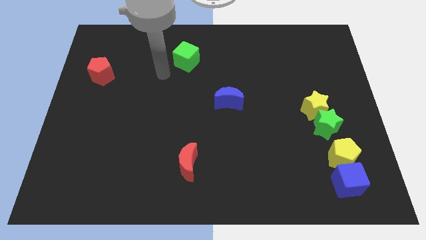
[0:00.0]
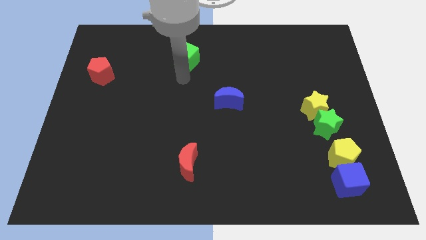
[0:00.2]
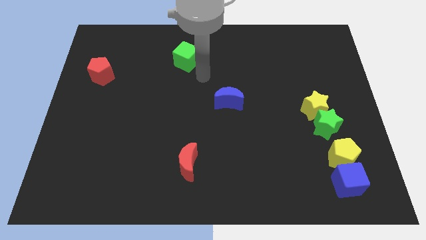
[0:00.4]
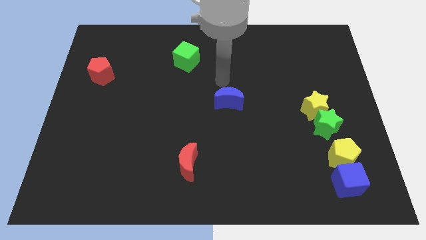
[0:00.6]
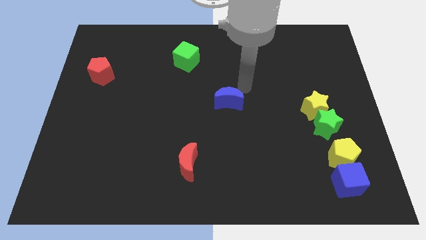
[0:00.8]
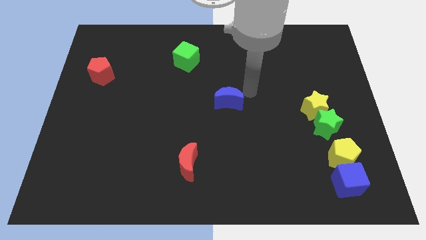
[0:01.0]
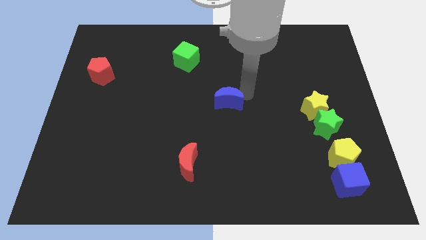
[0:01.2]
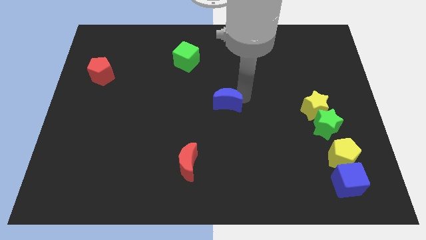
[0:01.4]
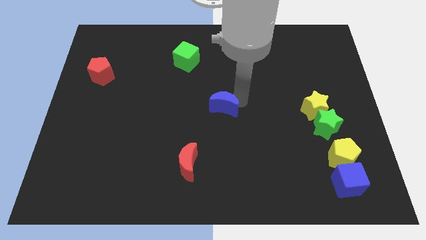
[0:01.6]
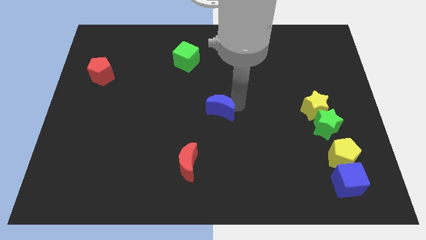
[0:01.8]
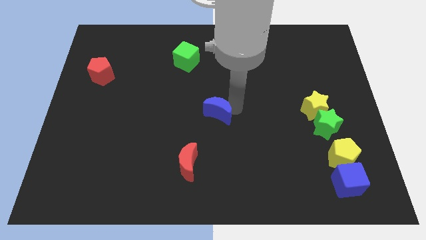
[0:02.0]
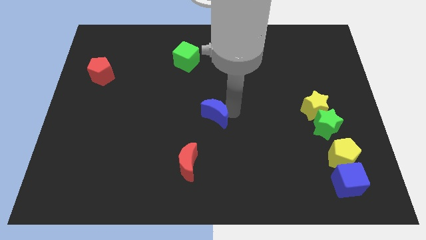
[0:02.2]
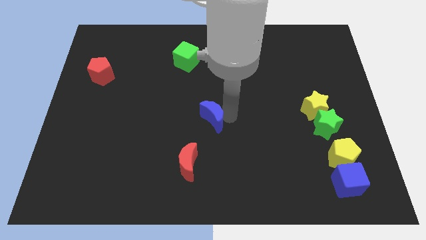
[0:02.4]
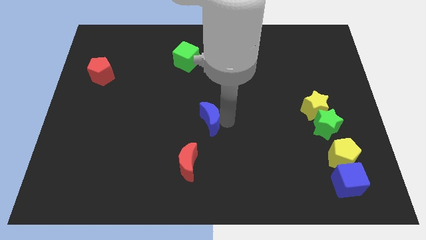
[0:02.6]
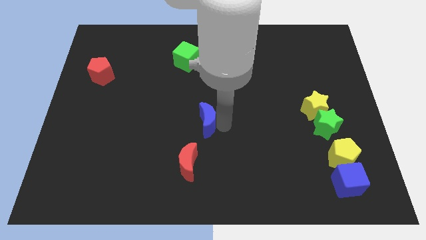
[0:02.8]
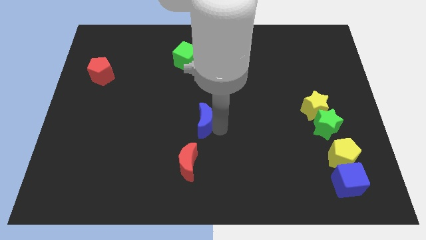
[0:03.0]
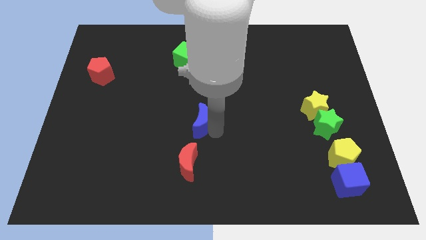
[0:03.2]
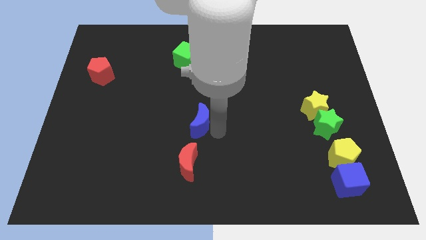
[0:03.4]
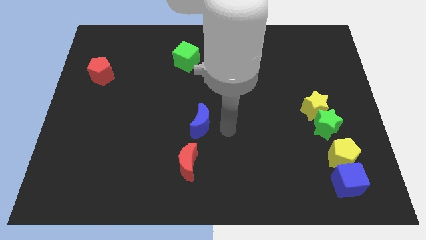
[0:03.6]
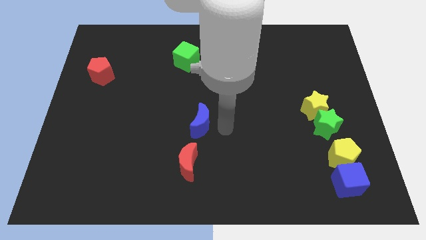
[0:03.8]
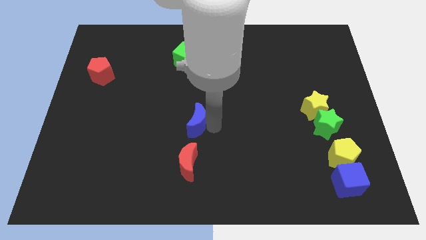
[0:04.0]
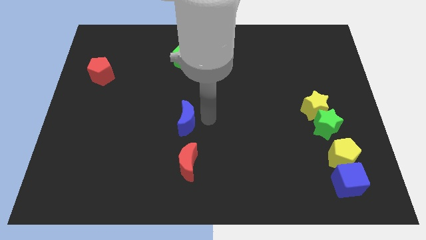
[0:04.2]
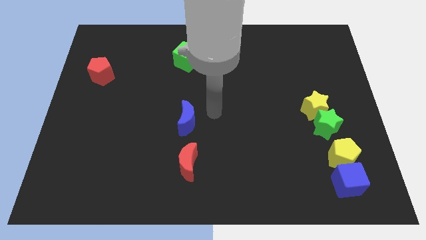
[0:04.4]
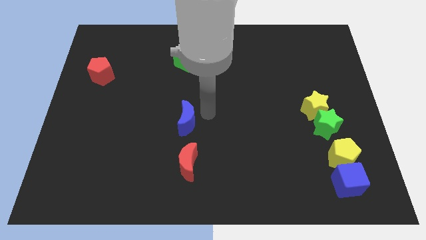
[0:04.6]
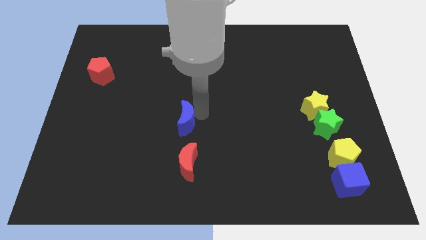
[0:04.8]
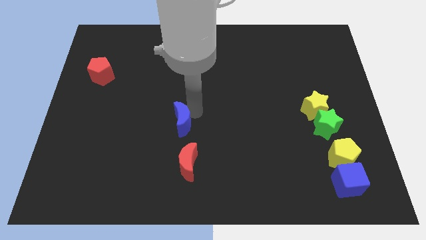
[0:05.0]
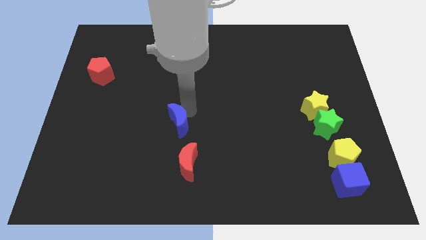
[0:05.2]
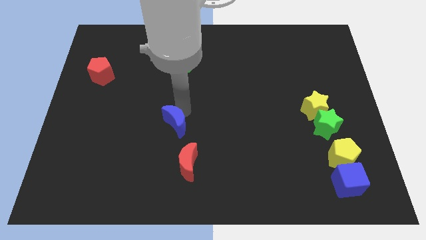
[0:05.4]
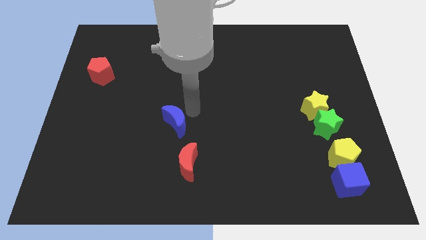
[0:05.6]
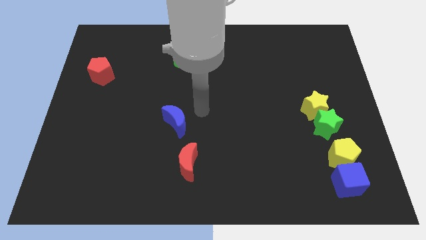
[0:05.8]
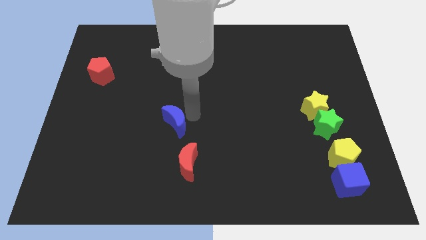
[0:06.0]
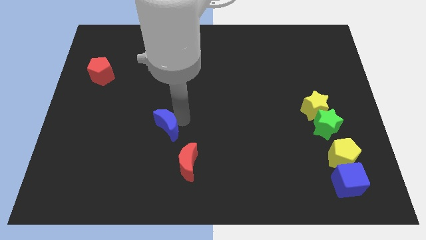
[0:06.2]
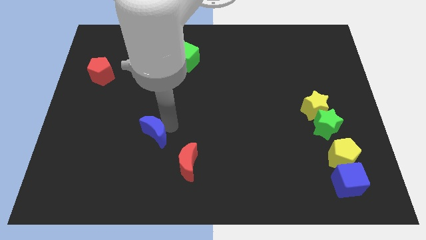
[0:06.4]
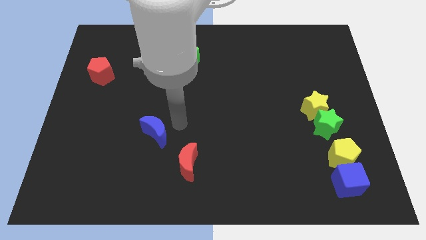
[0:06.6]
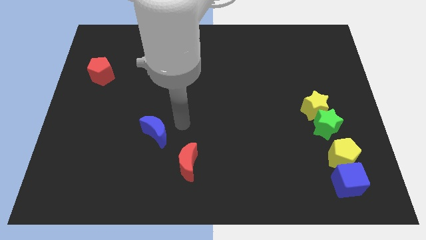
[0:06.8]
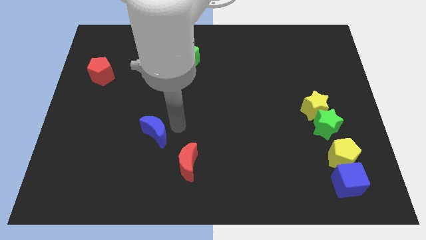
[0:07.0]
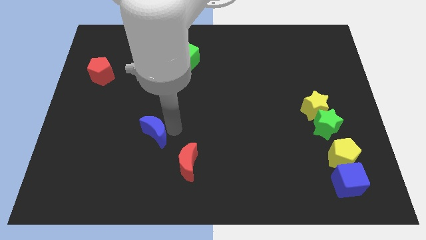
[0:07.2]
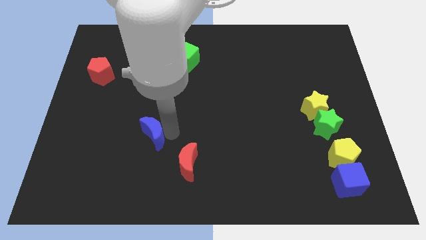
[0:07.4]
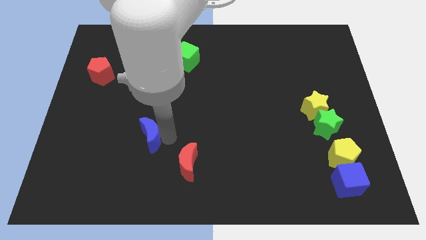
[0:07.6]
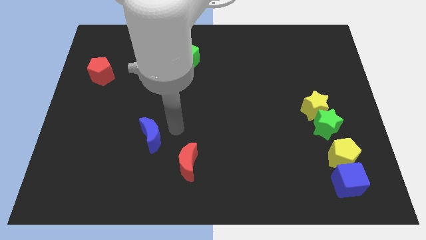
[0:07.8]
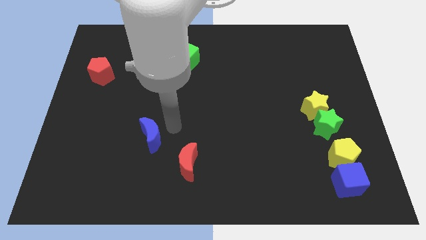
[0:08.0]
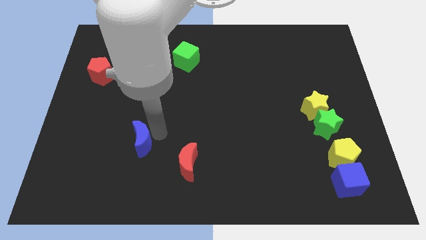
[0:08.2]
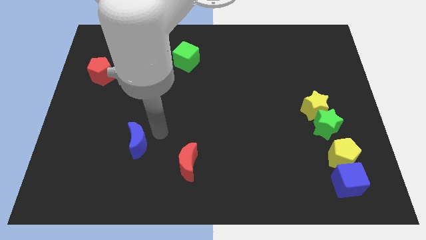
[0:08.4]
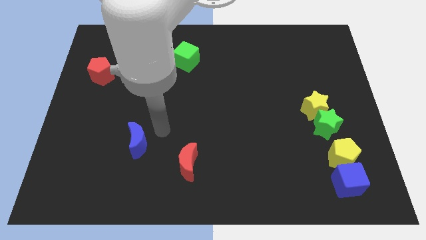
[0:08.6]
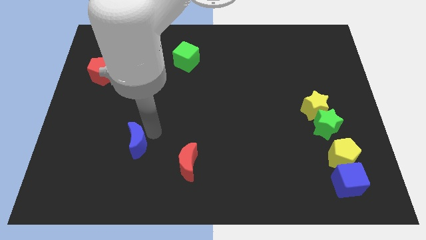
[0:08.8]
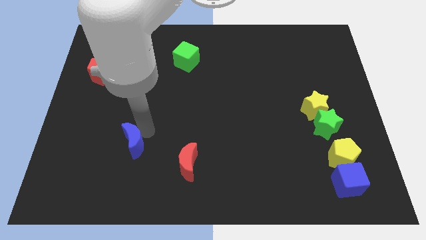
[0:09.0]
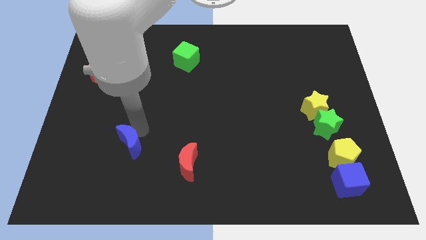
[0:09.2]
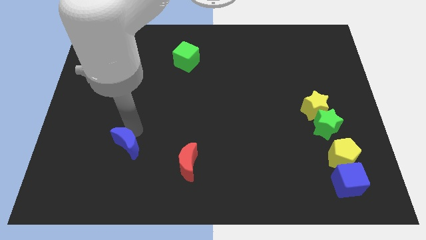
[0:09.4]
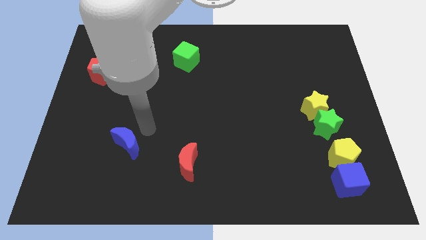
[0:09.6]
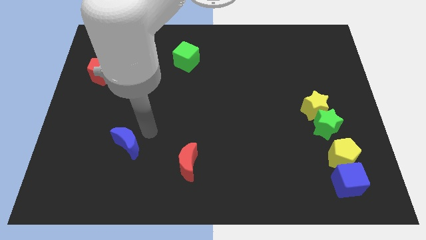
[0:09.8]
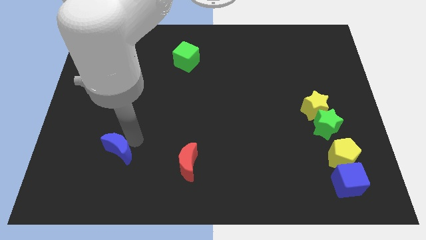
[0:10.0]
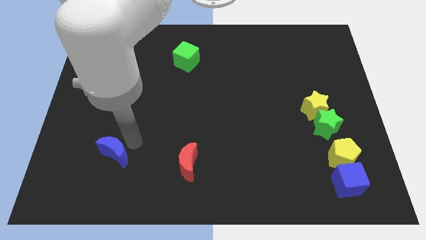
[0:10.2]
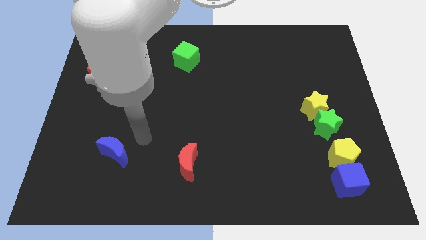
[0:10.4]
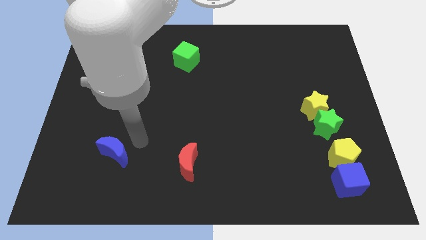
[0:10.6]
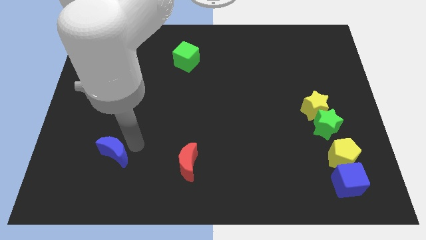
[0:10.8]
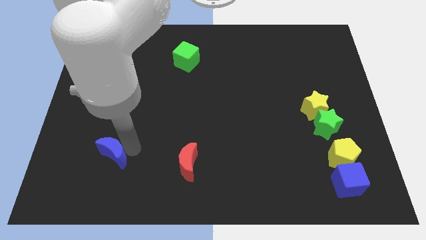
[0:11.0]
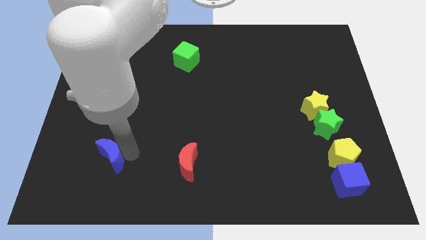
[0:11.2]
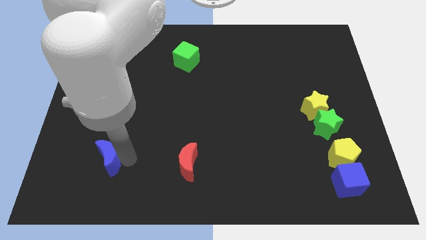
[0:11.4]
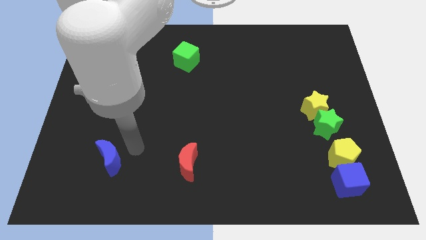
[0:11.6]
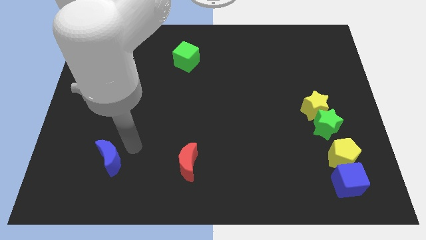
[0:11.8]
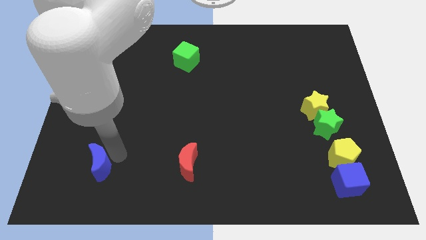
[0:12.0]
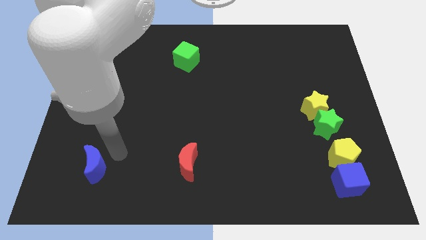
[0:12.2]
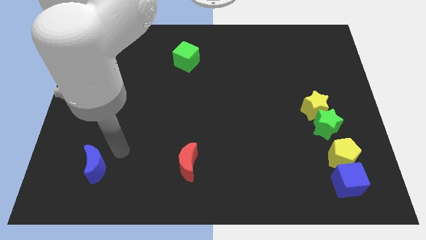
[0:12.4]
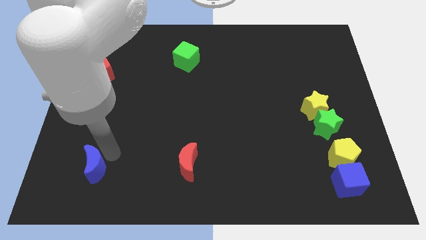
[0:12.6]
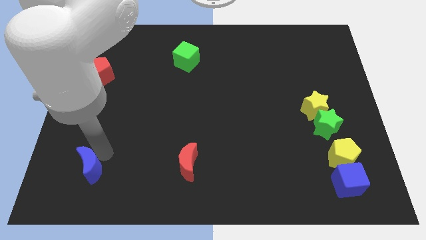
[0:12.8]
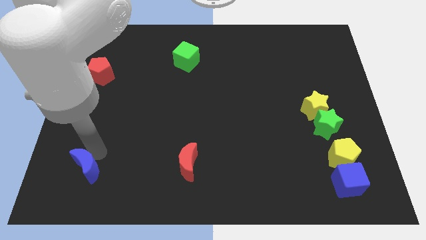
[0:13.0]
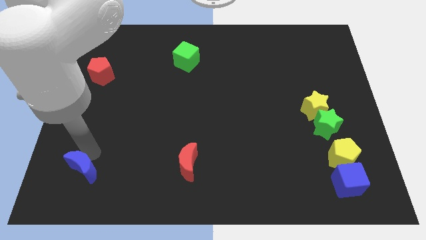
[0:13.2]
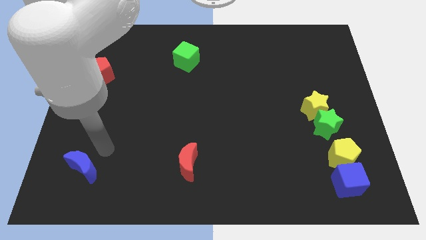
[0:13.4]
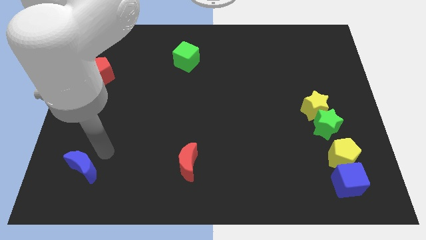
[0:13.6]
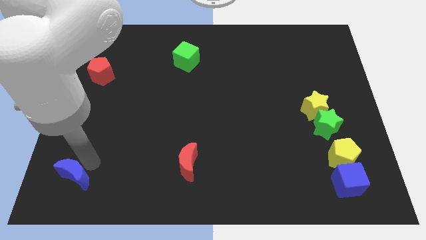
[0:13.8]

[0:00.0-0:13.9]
put the blue moon to the bottom left
